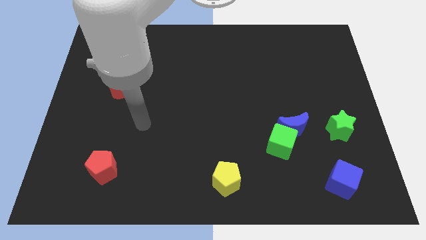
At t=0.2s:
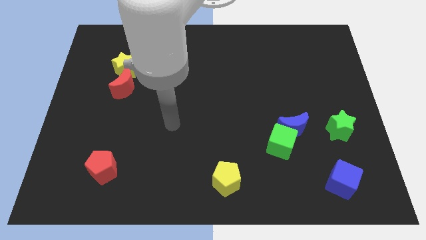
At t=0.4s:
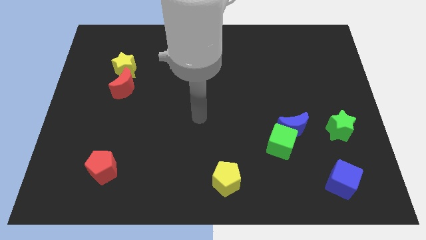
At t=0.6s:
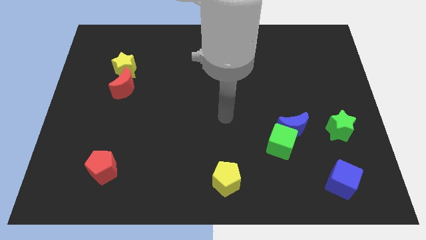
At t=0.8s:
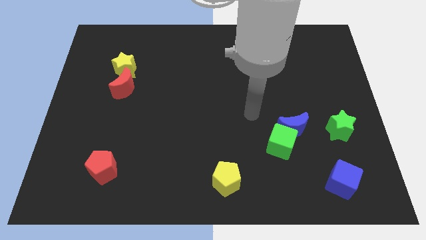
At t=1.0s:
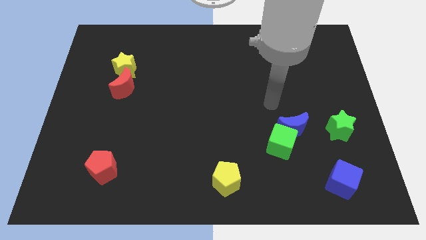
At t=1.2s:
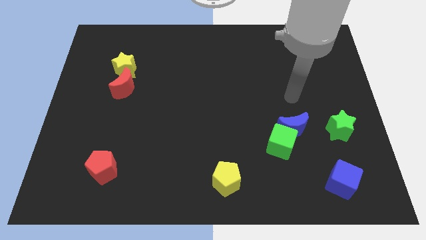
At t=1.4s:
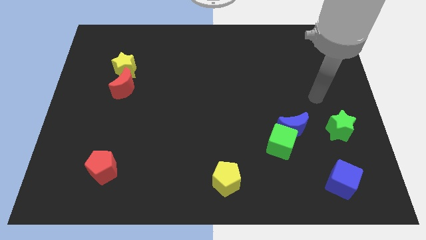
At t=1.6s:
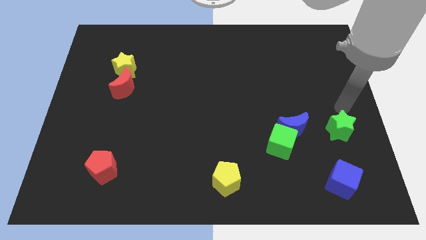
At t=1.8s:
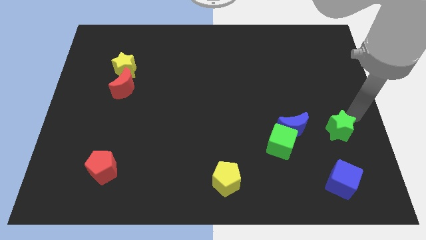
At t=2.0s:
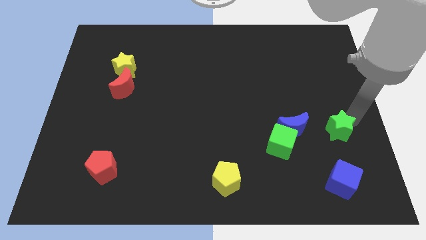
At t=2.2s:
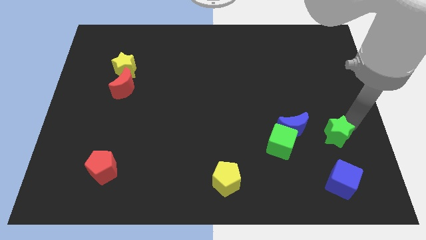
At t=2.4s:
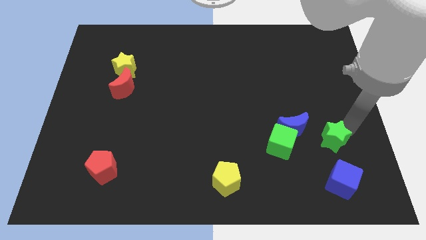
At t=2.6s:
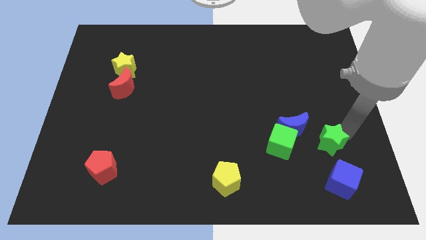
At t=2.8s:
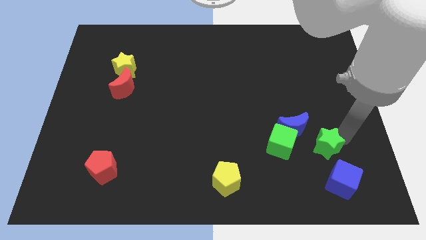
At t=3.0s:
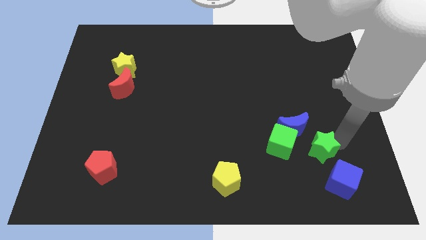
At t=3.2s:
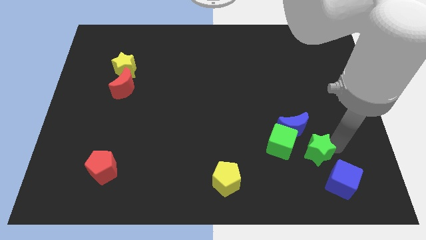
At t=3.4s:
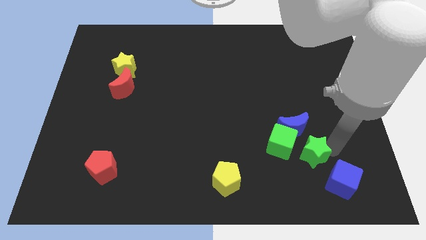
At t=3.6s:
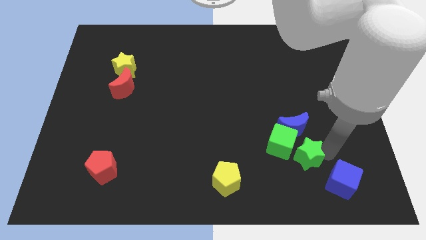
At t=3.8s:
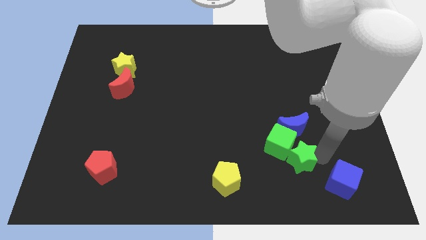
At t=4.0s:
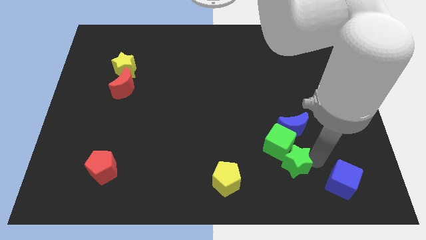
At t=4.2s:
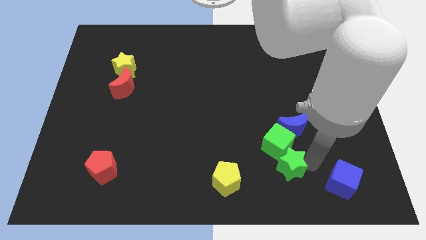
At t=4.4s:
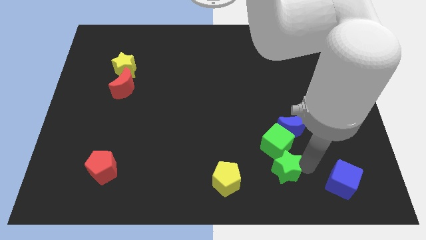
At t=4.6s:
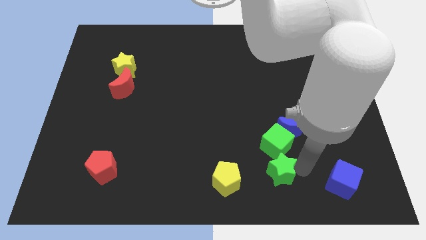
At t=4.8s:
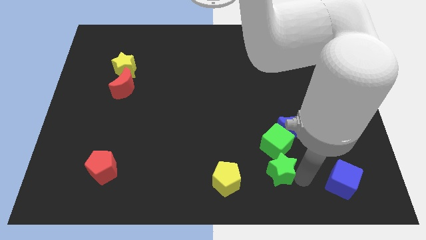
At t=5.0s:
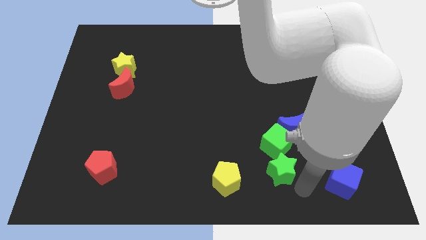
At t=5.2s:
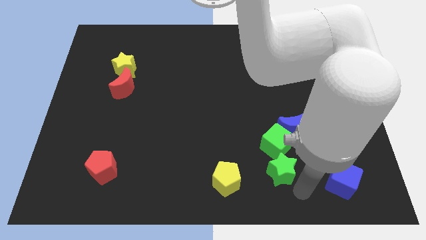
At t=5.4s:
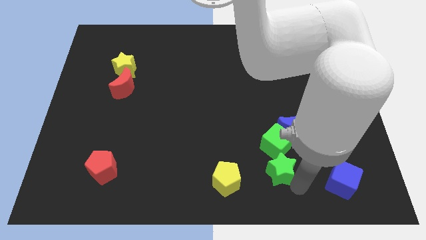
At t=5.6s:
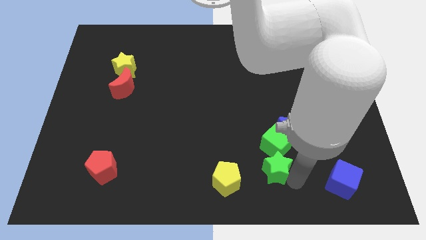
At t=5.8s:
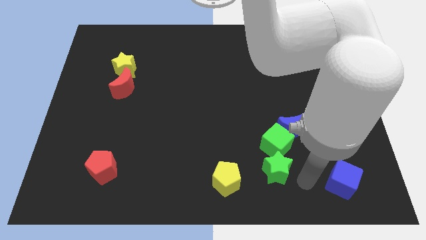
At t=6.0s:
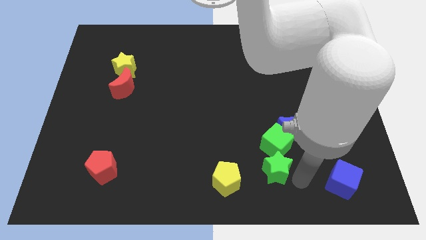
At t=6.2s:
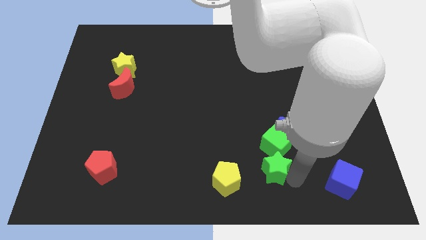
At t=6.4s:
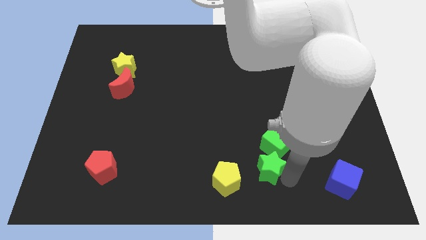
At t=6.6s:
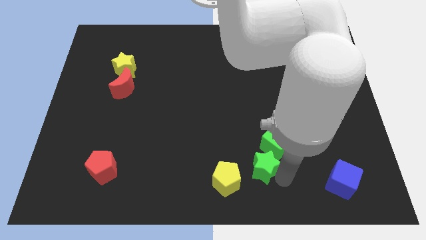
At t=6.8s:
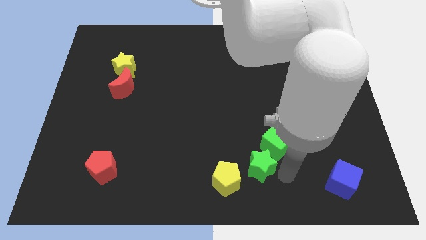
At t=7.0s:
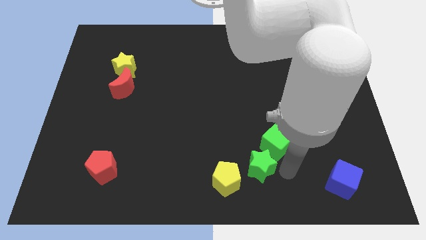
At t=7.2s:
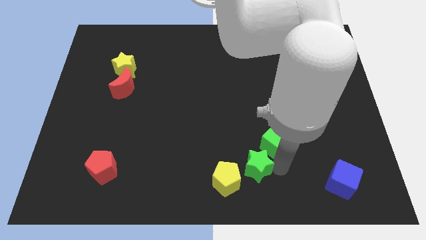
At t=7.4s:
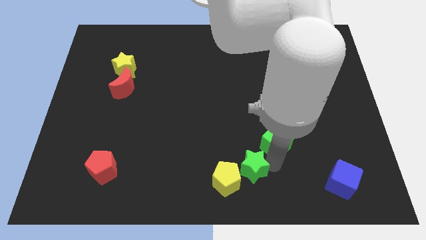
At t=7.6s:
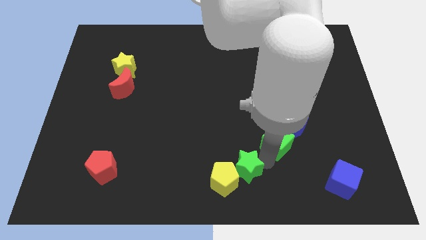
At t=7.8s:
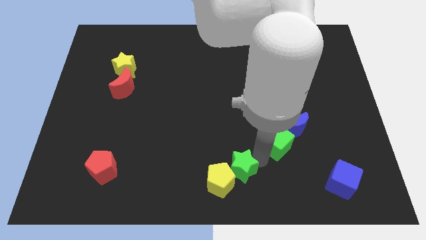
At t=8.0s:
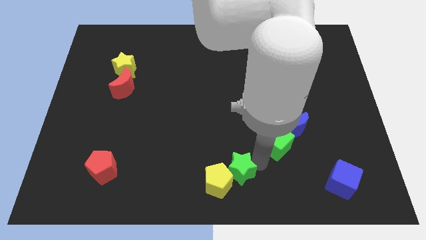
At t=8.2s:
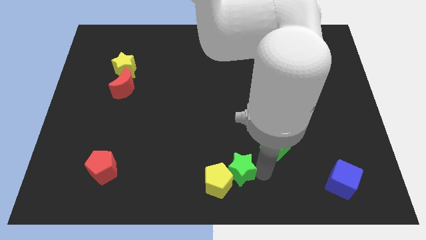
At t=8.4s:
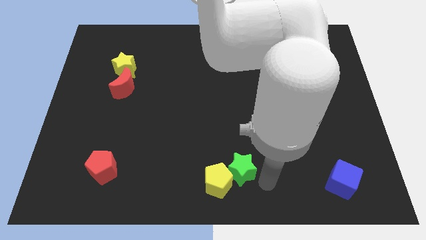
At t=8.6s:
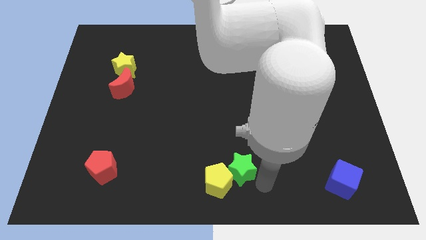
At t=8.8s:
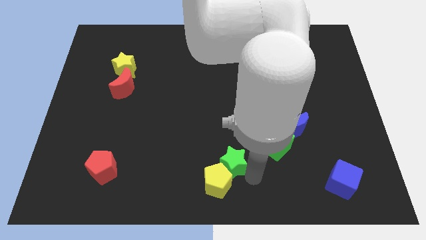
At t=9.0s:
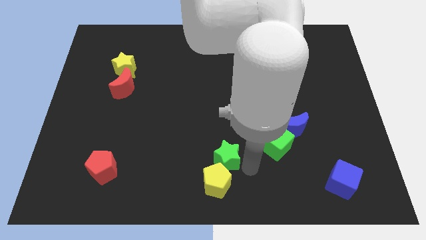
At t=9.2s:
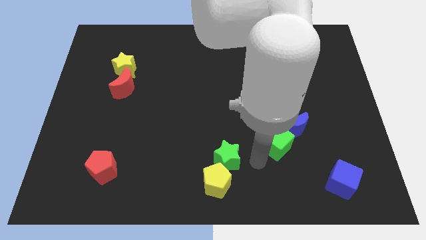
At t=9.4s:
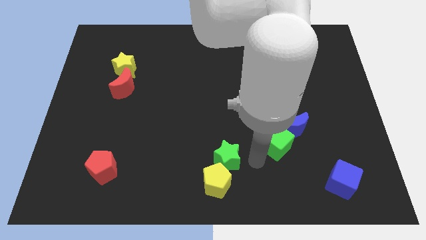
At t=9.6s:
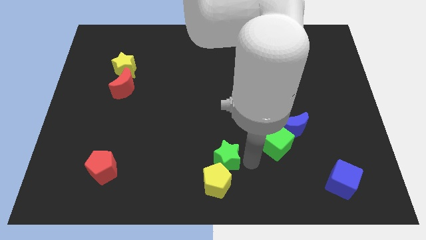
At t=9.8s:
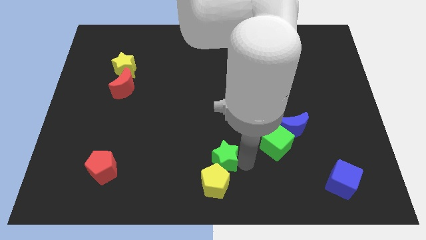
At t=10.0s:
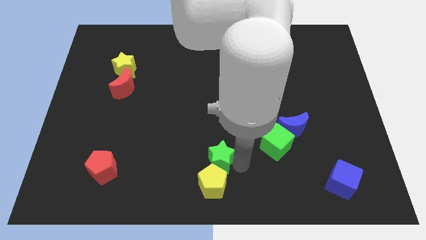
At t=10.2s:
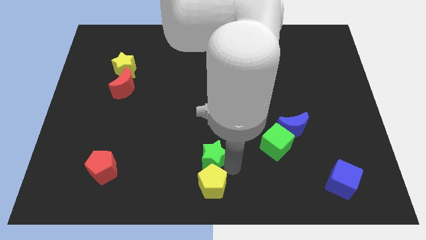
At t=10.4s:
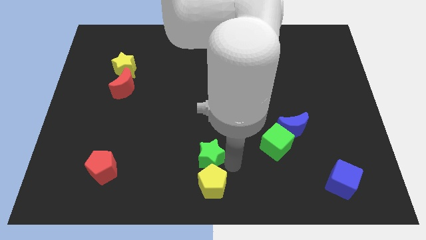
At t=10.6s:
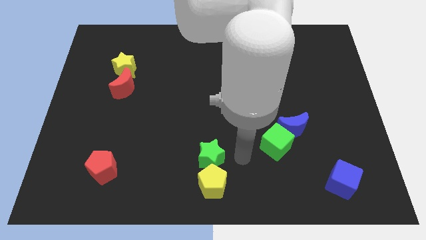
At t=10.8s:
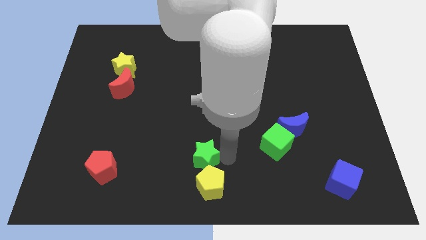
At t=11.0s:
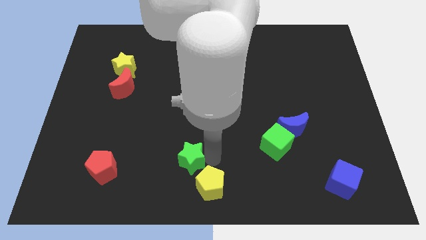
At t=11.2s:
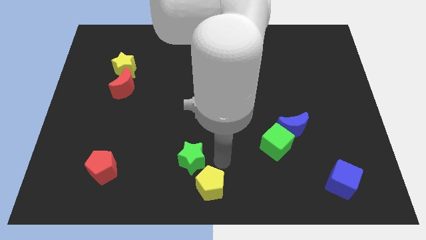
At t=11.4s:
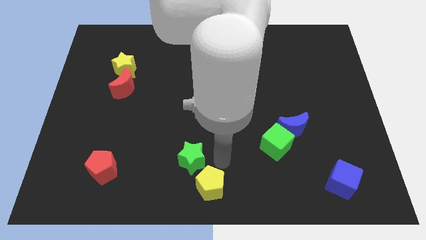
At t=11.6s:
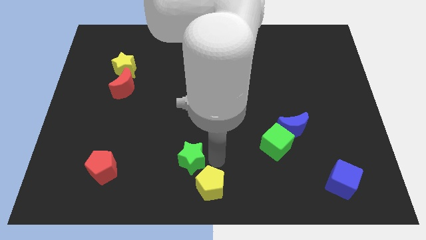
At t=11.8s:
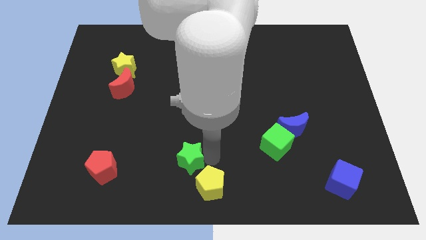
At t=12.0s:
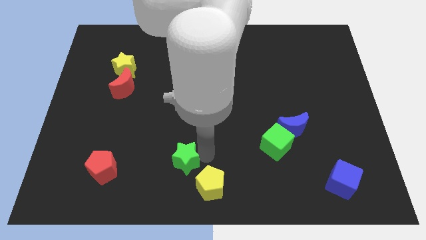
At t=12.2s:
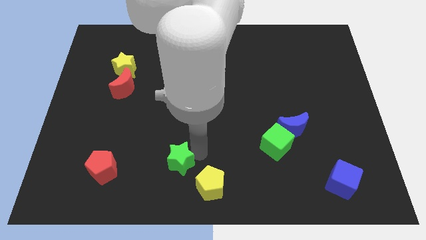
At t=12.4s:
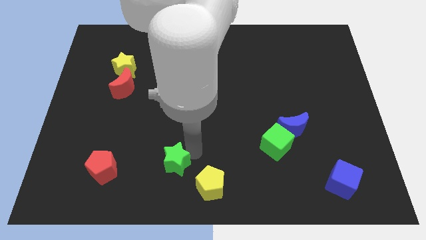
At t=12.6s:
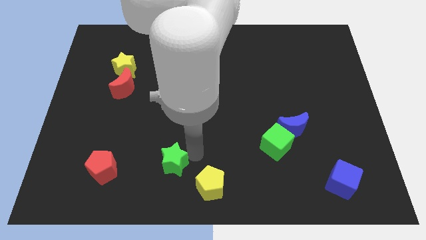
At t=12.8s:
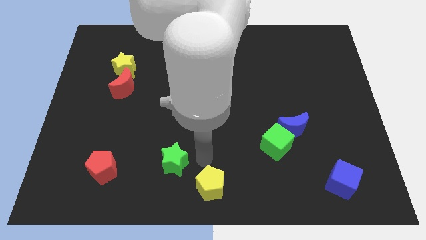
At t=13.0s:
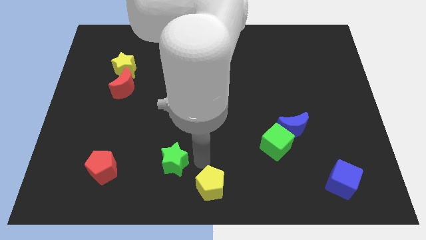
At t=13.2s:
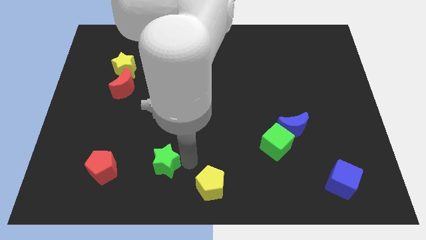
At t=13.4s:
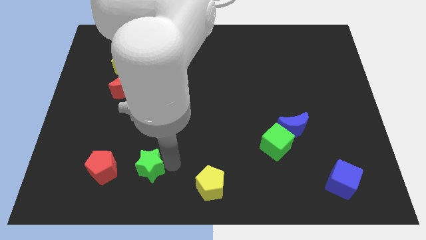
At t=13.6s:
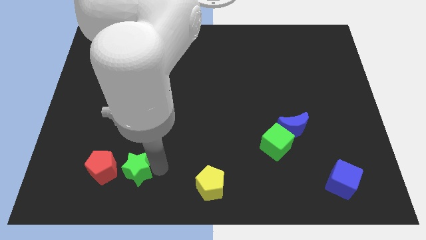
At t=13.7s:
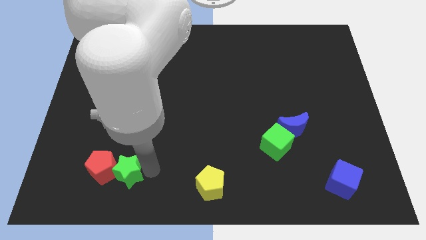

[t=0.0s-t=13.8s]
slide the green star to the red pentagon
